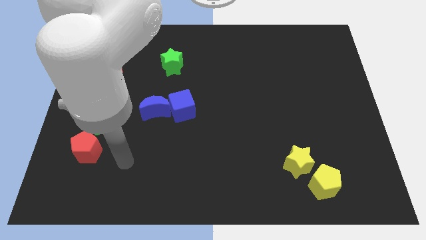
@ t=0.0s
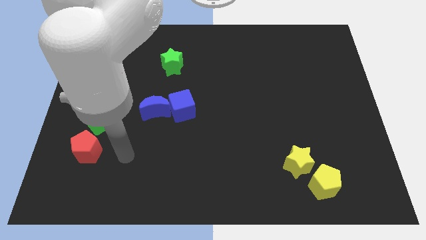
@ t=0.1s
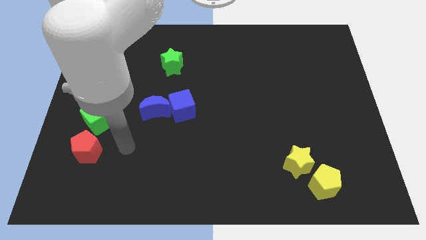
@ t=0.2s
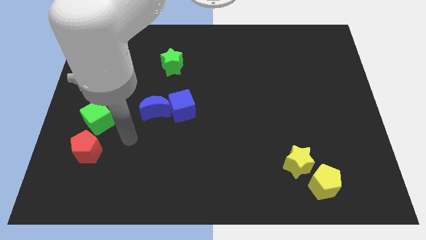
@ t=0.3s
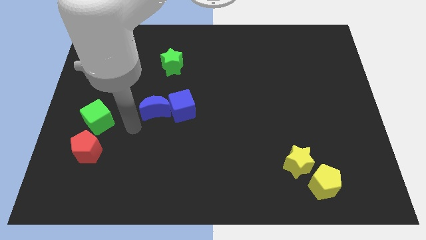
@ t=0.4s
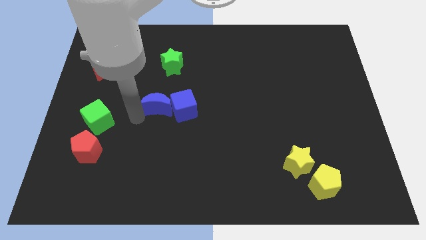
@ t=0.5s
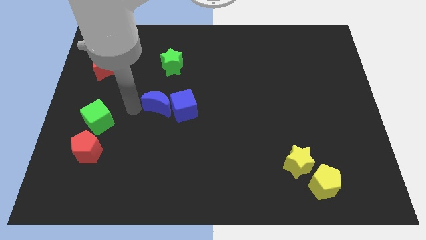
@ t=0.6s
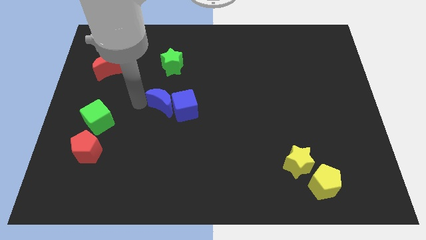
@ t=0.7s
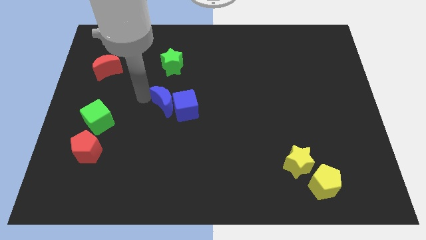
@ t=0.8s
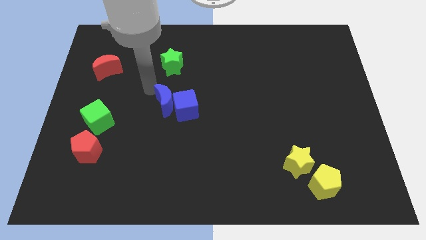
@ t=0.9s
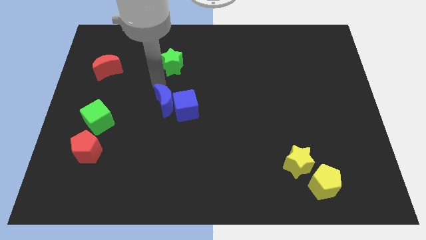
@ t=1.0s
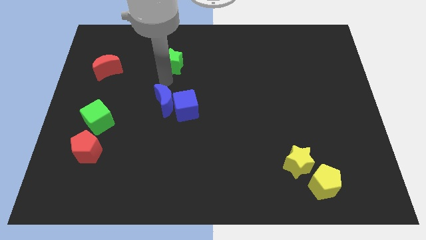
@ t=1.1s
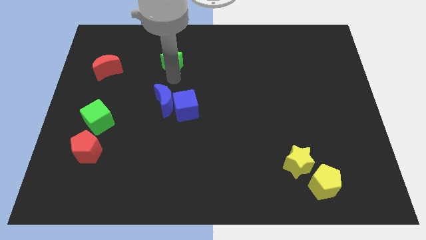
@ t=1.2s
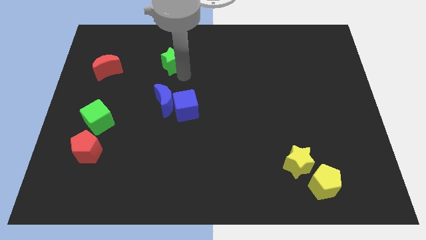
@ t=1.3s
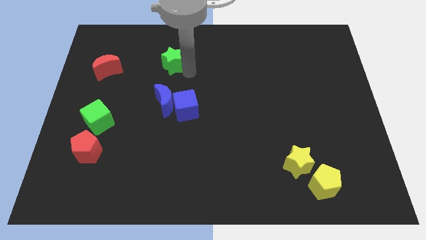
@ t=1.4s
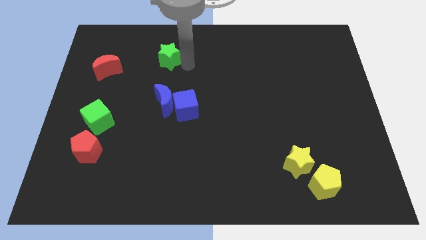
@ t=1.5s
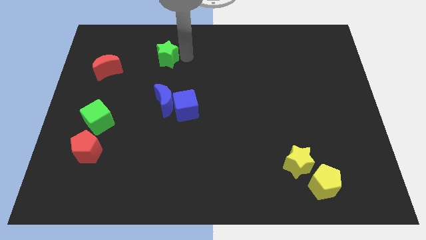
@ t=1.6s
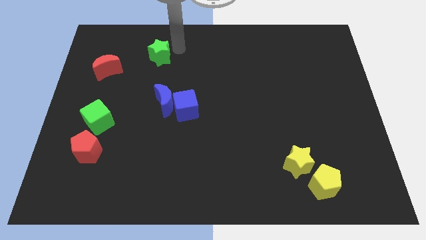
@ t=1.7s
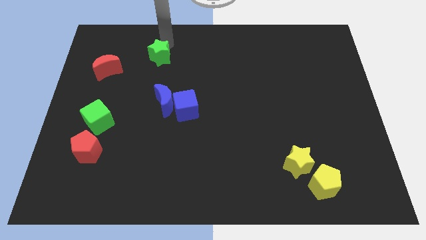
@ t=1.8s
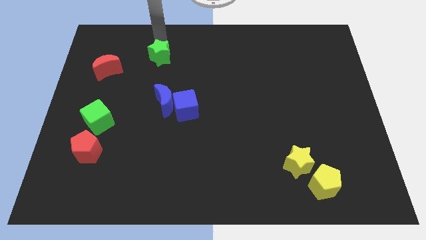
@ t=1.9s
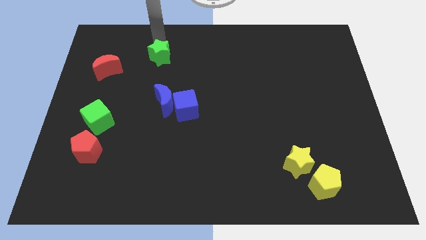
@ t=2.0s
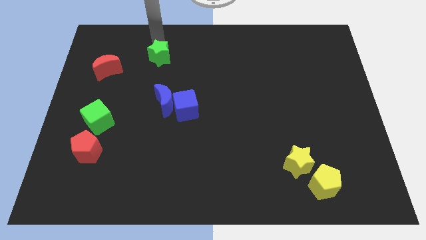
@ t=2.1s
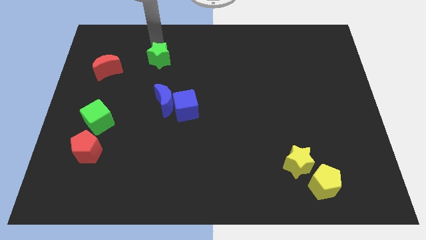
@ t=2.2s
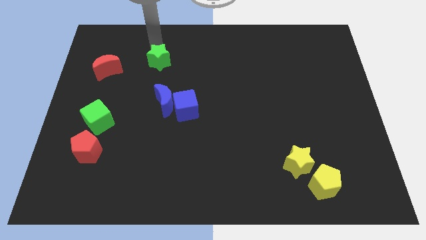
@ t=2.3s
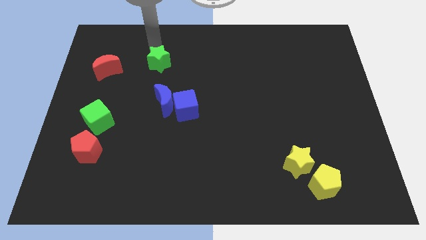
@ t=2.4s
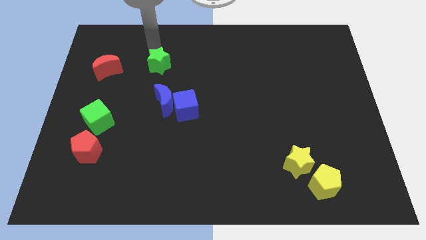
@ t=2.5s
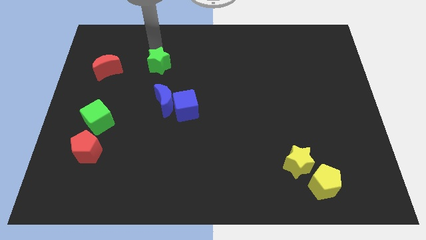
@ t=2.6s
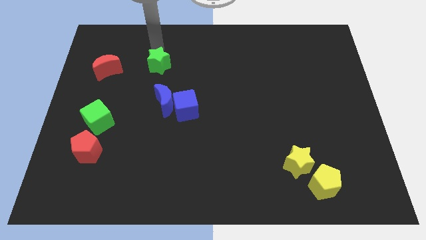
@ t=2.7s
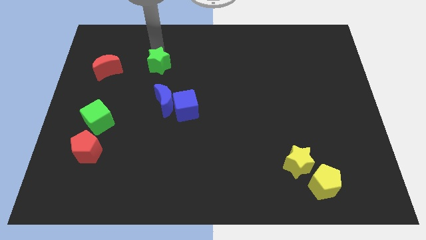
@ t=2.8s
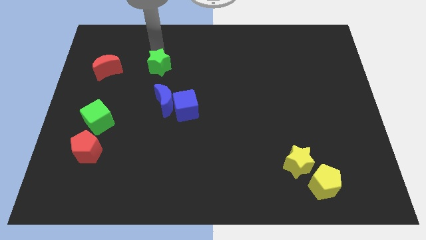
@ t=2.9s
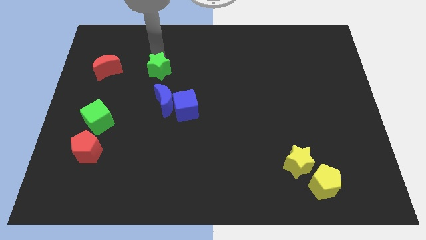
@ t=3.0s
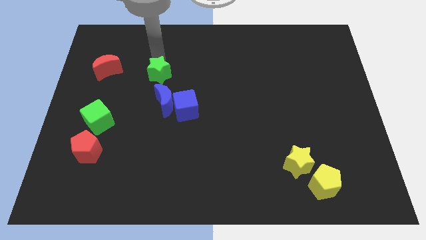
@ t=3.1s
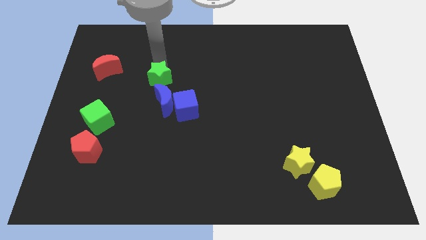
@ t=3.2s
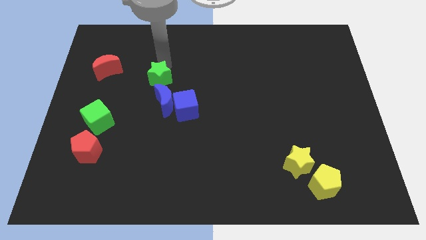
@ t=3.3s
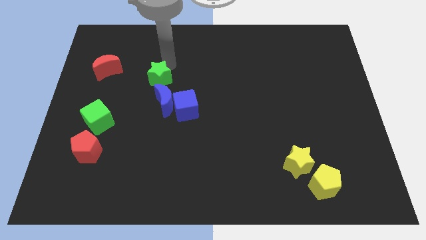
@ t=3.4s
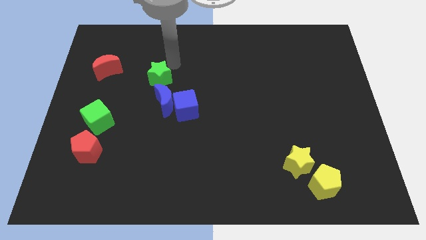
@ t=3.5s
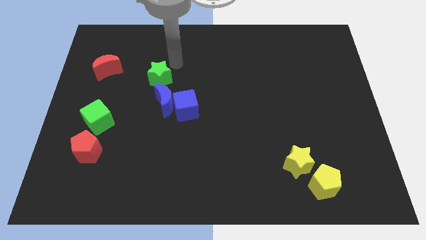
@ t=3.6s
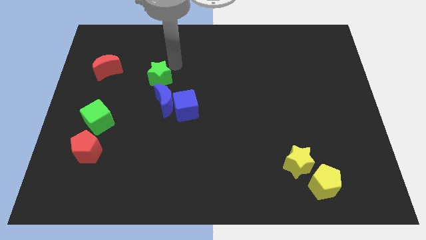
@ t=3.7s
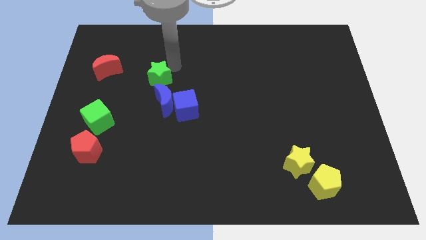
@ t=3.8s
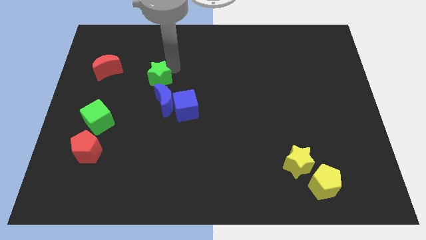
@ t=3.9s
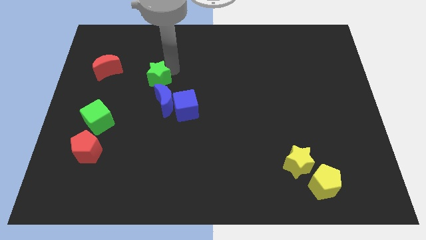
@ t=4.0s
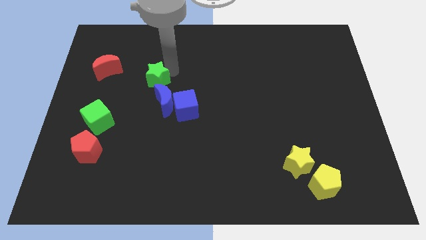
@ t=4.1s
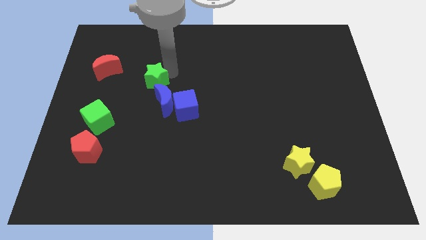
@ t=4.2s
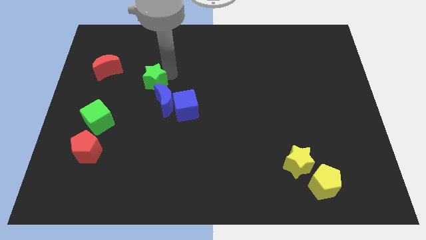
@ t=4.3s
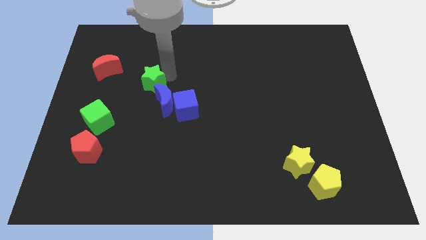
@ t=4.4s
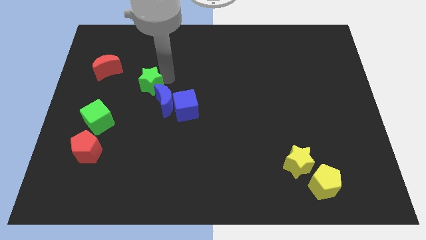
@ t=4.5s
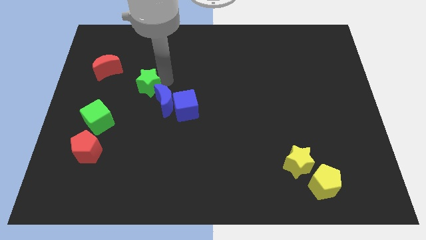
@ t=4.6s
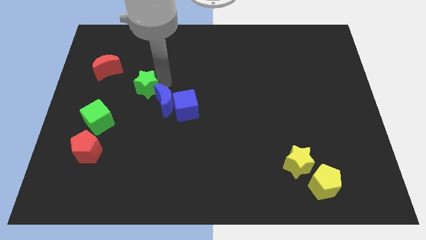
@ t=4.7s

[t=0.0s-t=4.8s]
slide the green star down somewhat

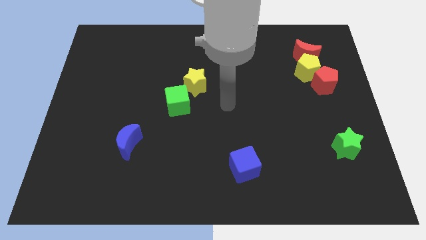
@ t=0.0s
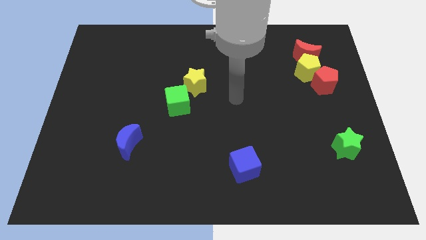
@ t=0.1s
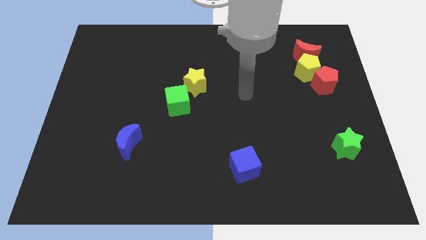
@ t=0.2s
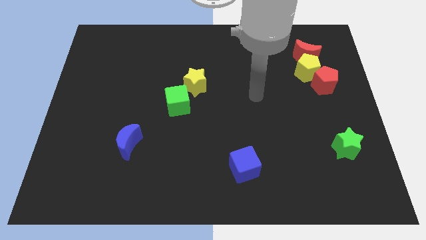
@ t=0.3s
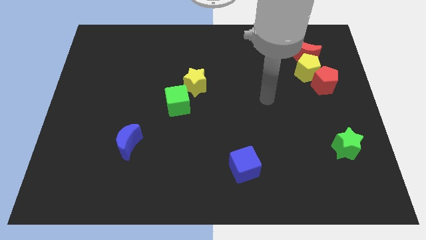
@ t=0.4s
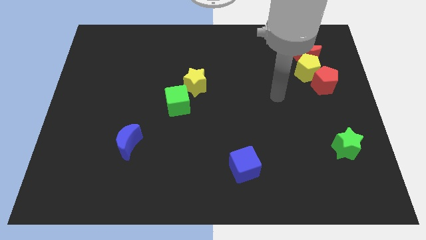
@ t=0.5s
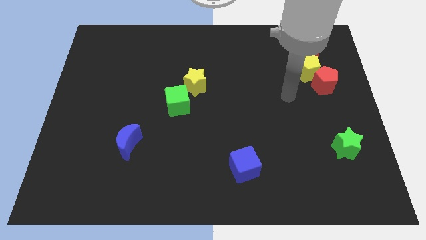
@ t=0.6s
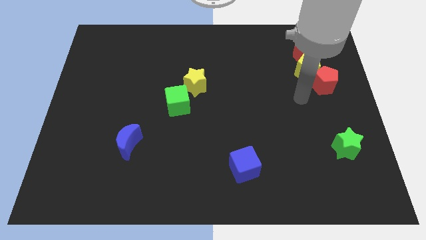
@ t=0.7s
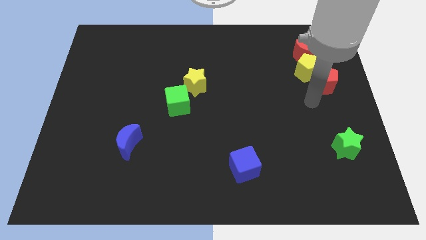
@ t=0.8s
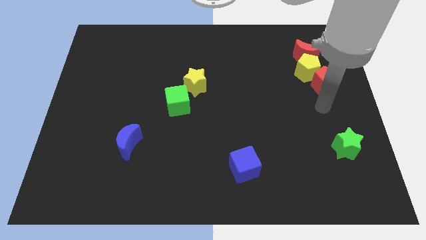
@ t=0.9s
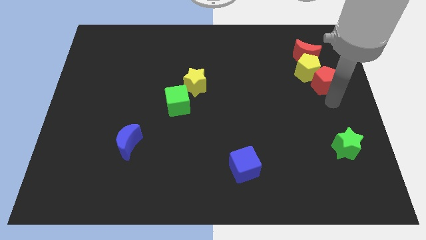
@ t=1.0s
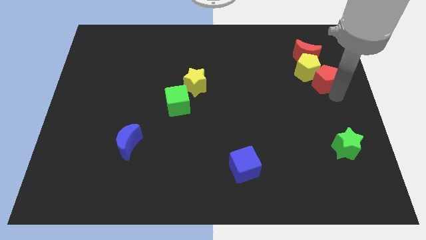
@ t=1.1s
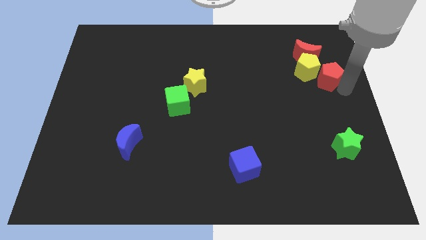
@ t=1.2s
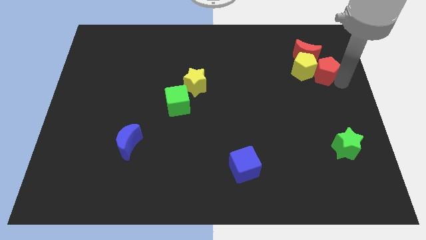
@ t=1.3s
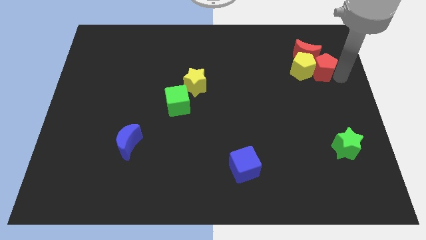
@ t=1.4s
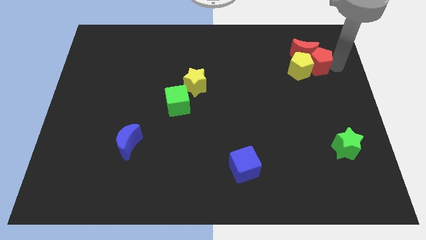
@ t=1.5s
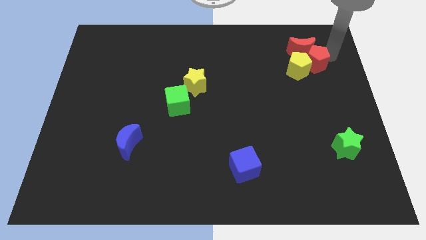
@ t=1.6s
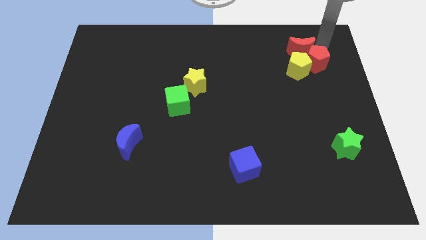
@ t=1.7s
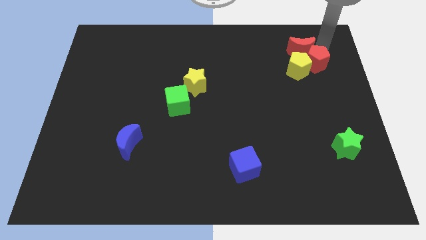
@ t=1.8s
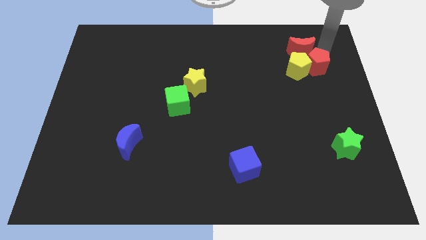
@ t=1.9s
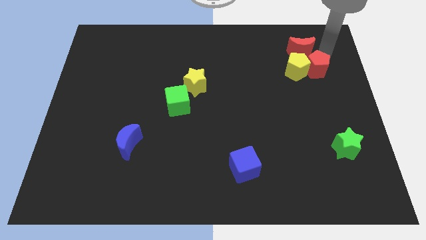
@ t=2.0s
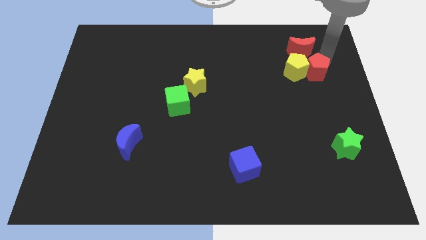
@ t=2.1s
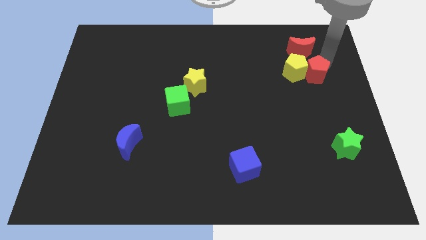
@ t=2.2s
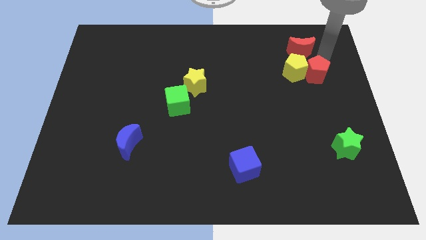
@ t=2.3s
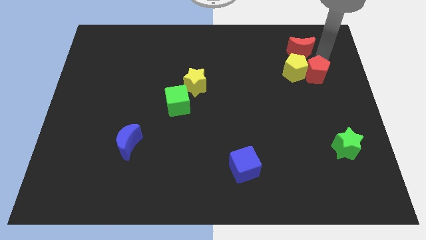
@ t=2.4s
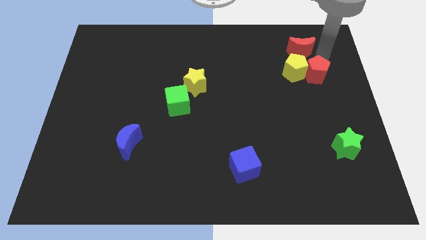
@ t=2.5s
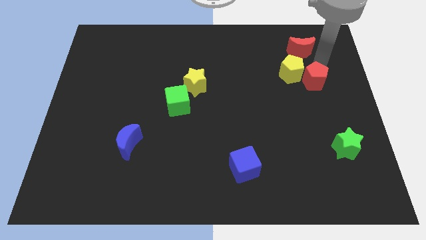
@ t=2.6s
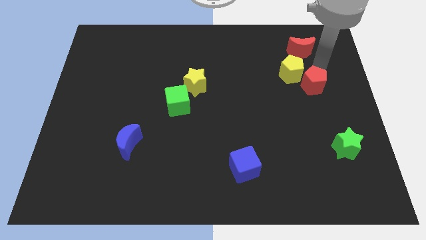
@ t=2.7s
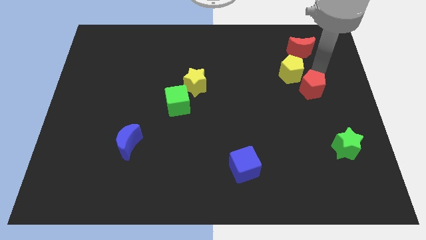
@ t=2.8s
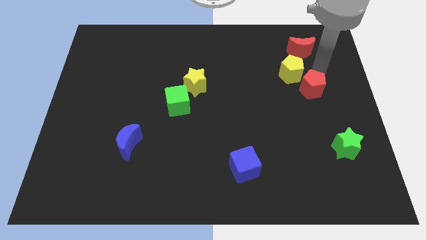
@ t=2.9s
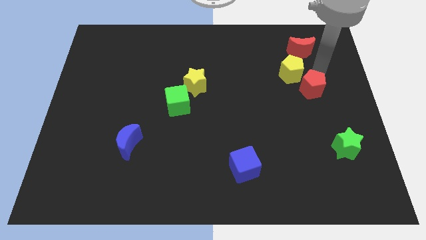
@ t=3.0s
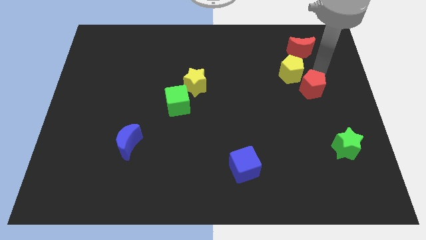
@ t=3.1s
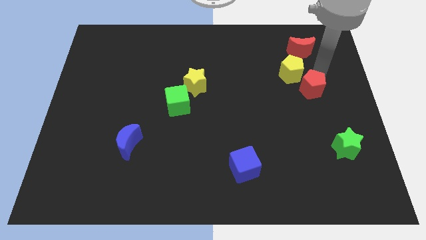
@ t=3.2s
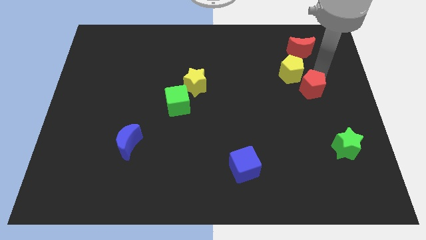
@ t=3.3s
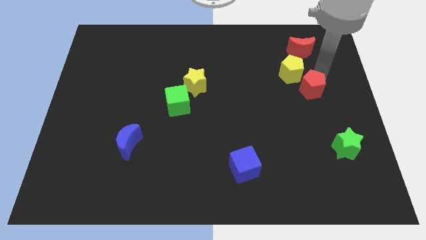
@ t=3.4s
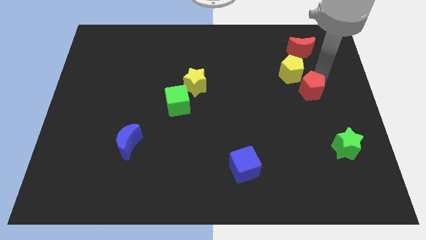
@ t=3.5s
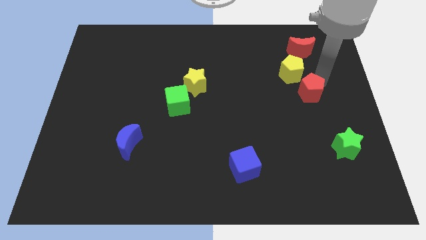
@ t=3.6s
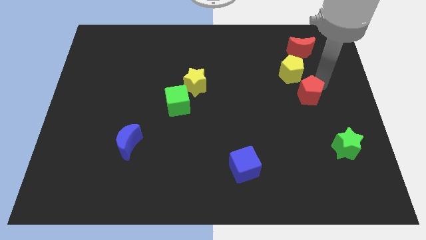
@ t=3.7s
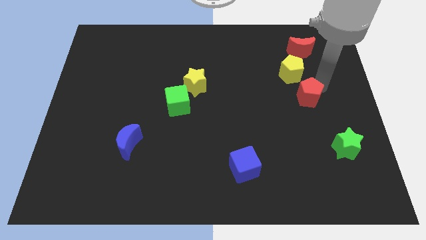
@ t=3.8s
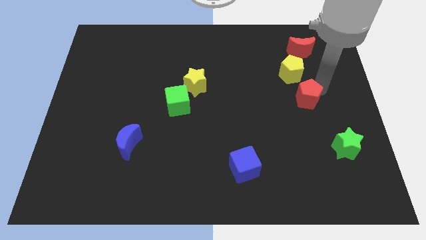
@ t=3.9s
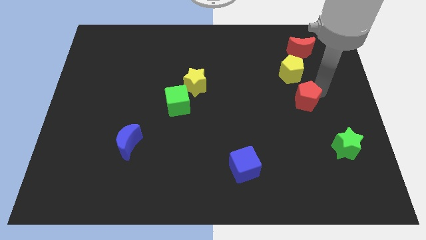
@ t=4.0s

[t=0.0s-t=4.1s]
slightly push the red pentagon downwards and left diagonally
